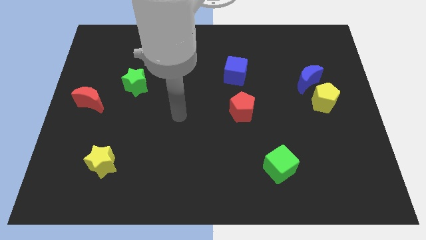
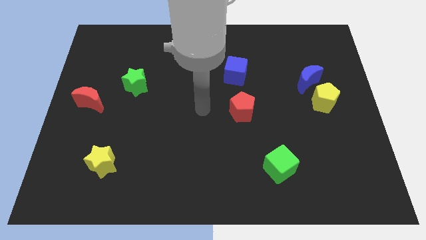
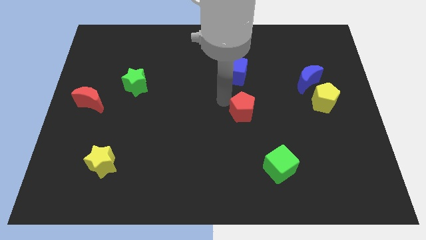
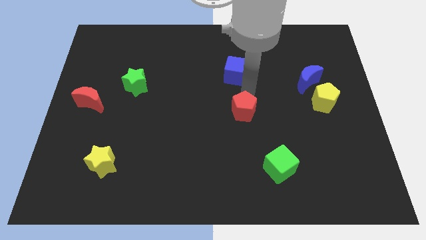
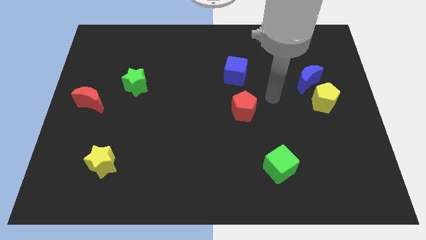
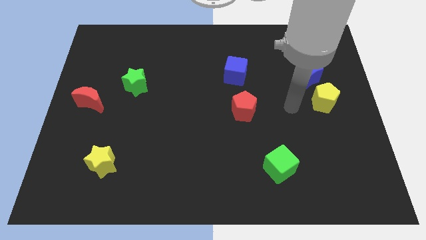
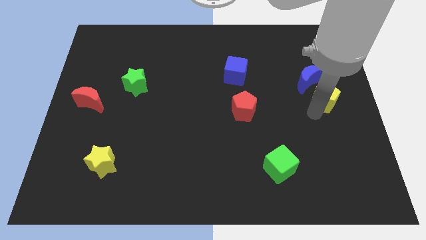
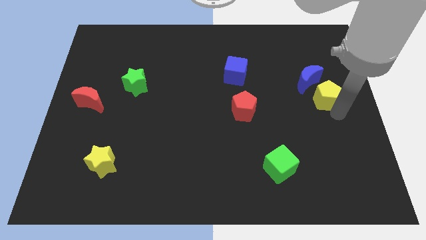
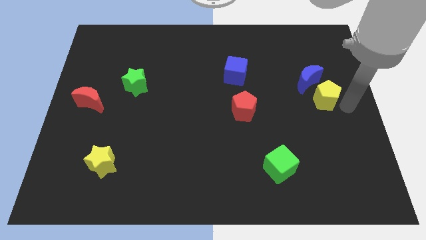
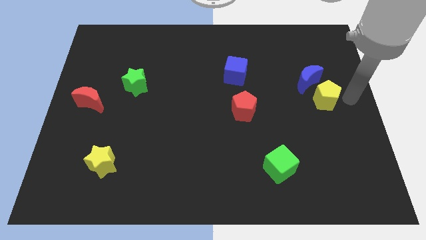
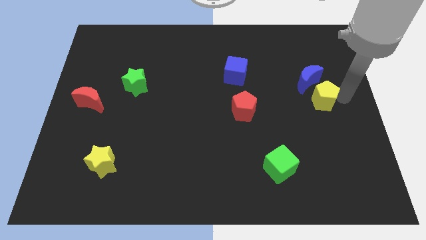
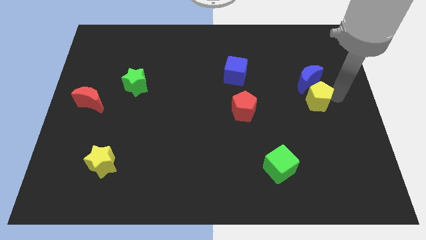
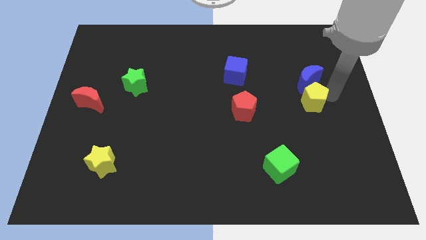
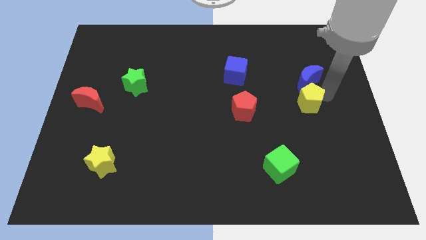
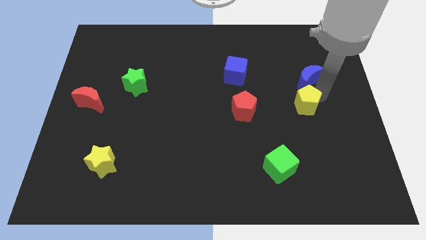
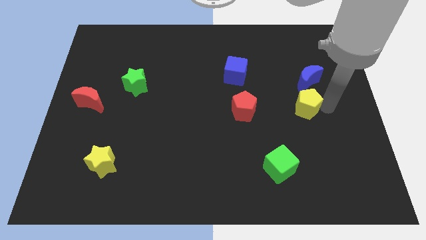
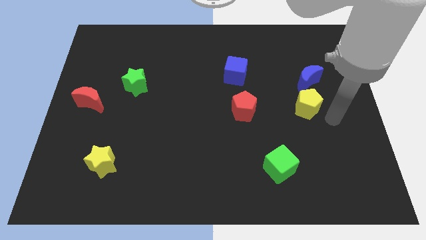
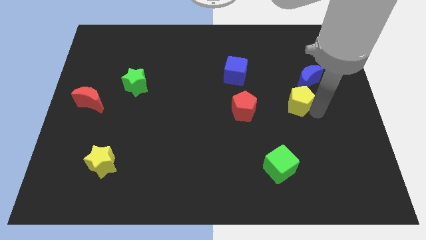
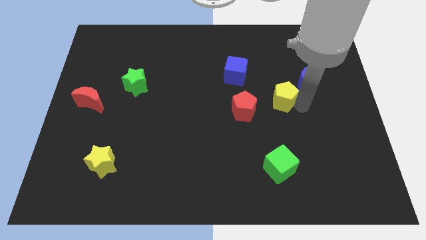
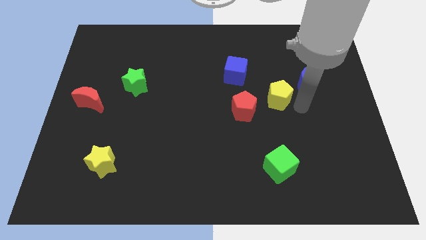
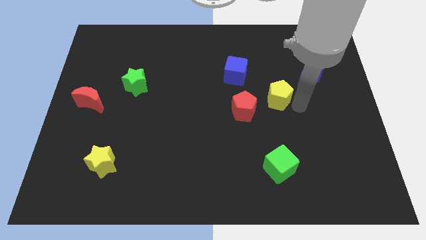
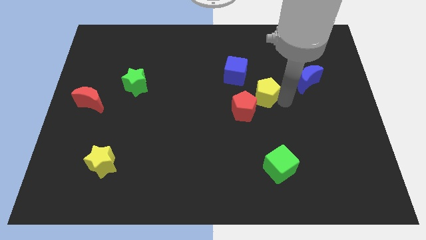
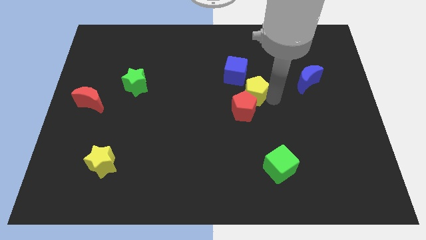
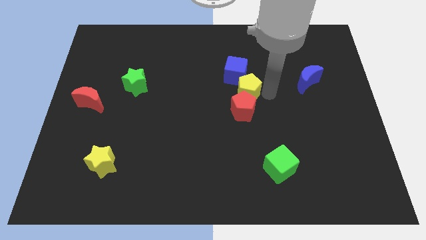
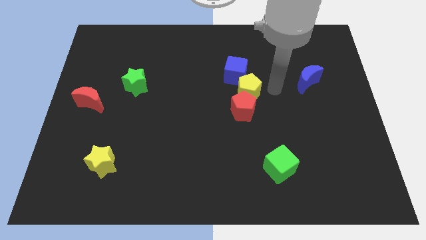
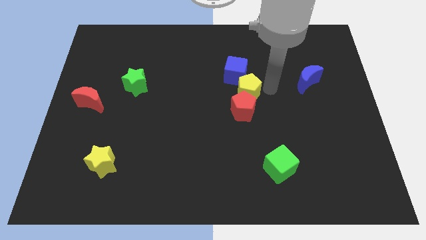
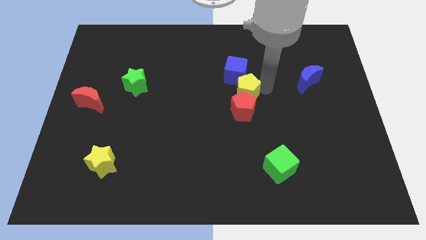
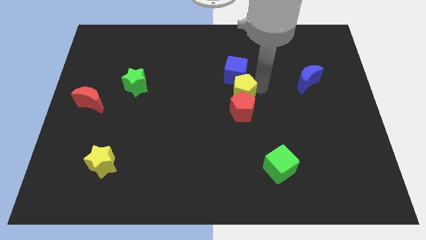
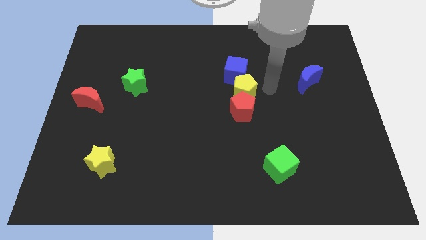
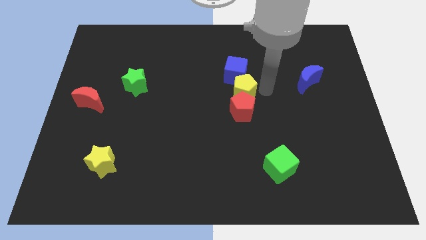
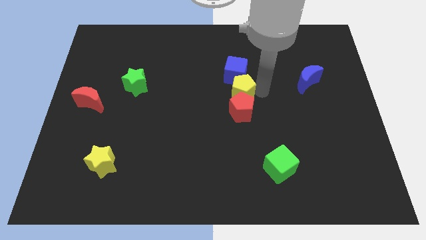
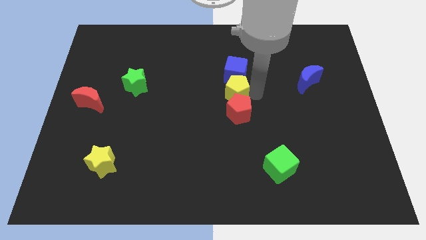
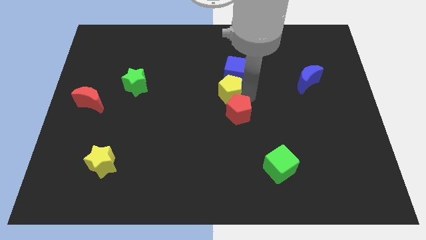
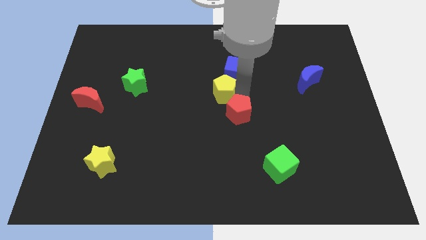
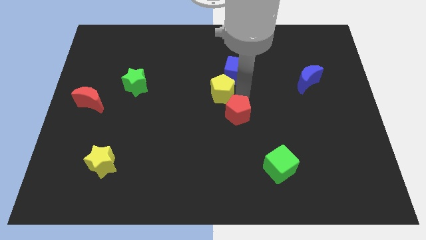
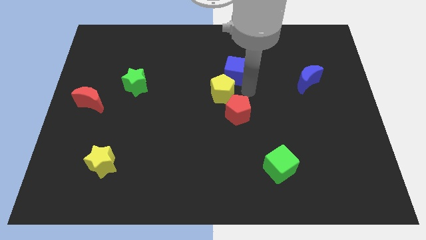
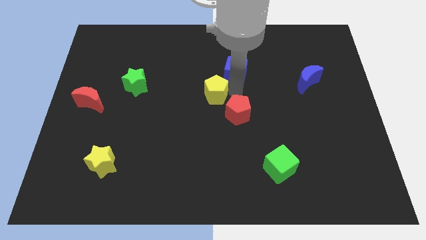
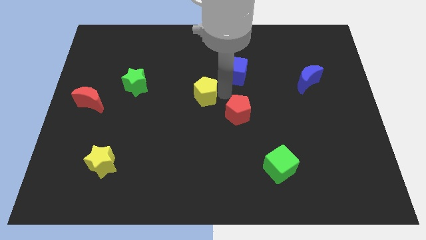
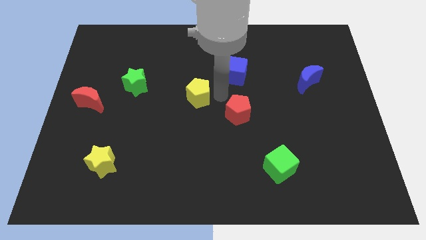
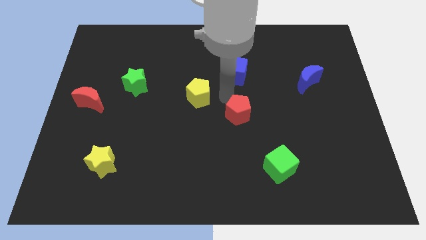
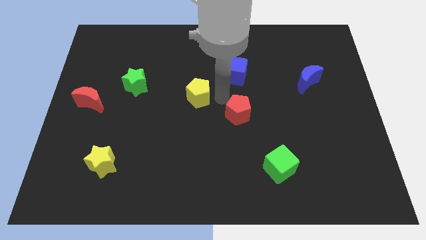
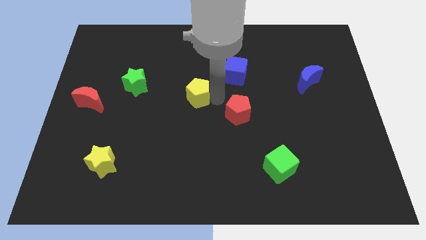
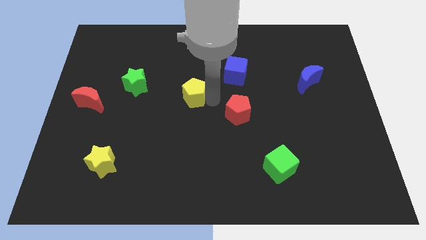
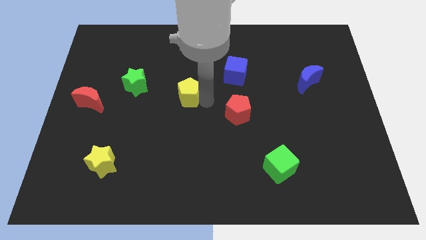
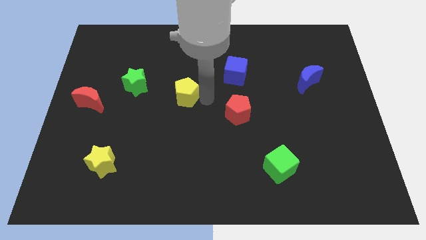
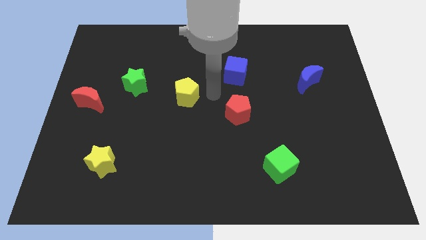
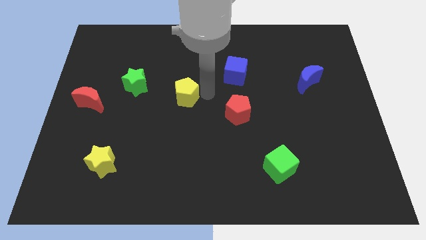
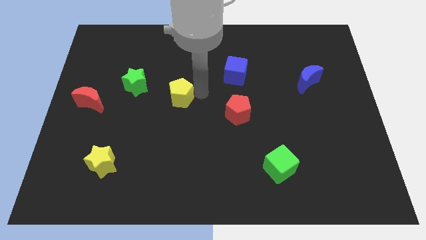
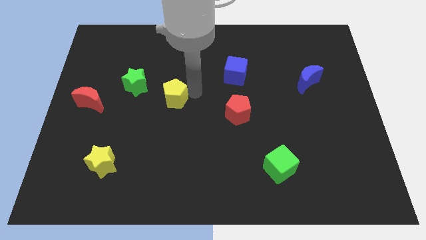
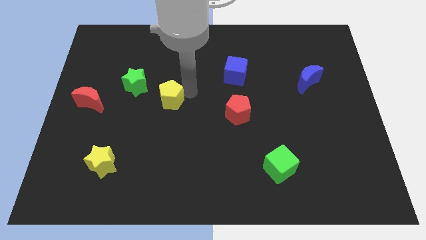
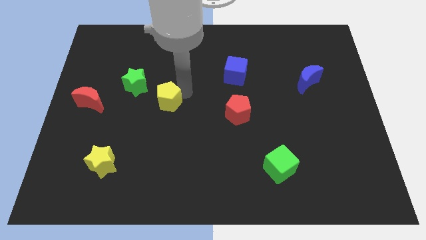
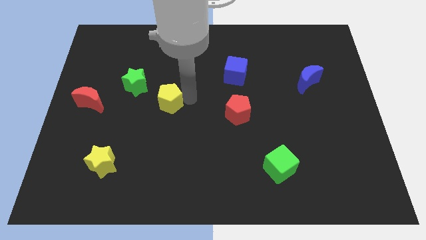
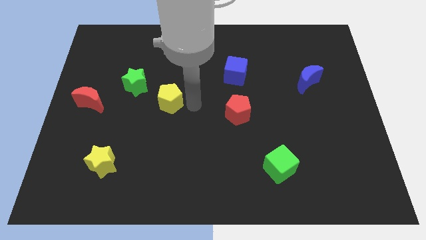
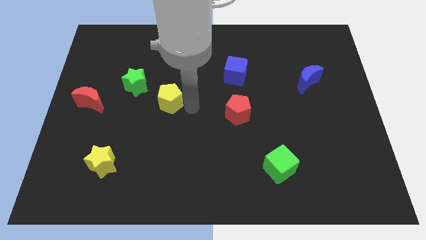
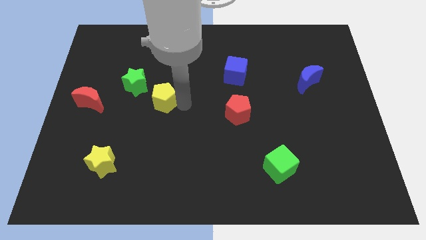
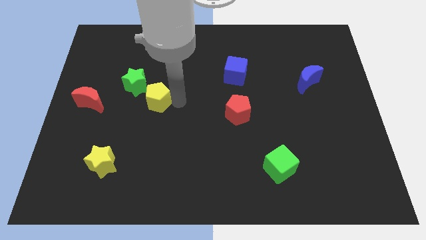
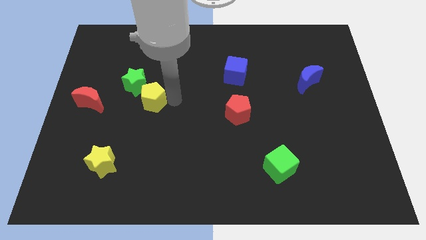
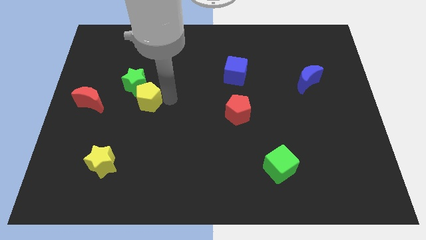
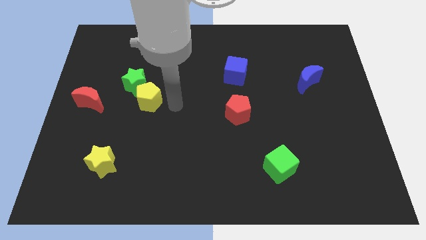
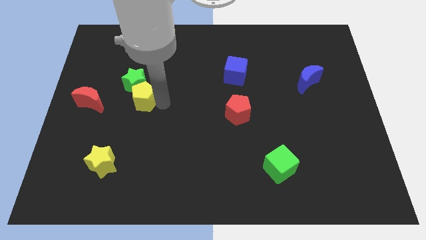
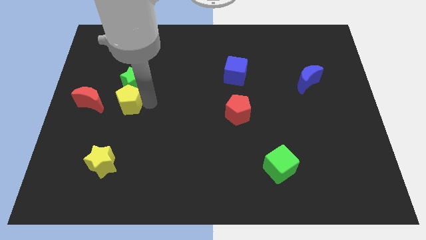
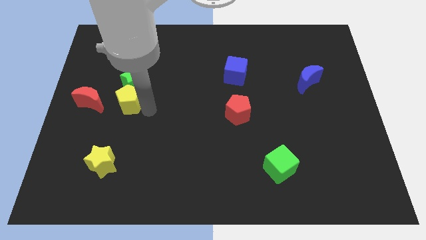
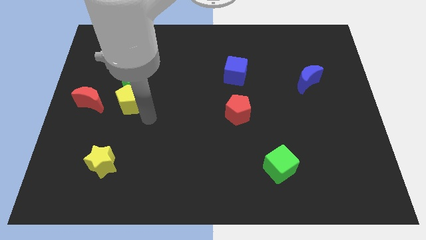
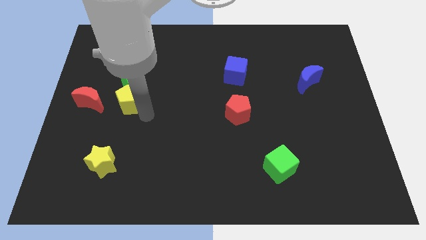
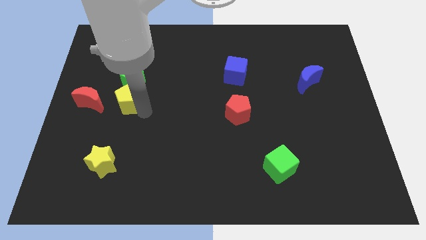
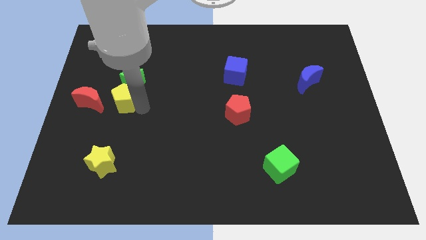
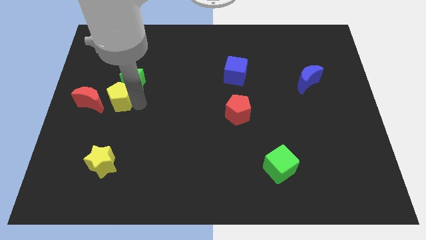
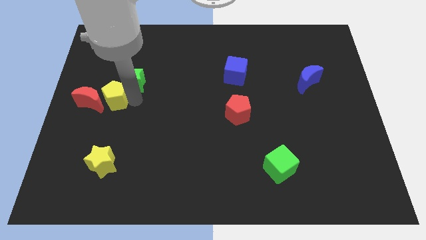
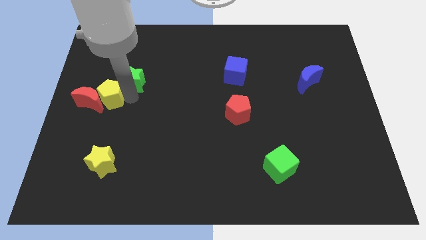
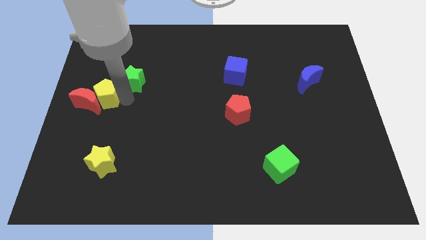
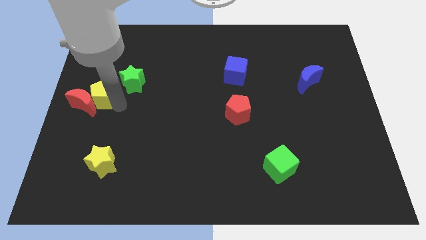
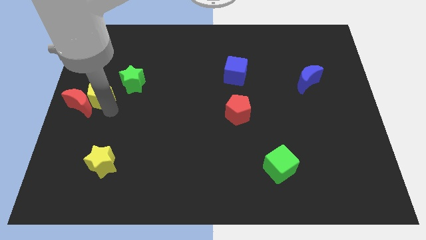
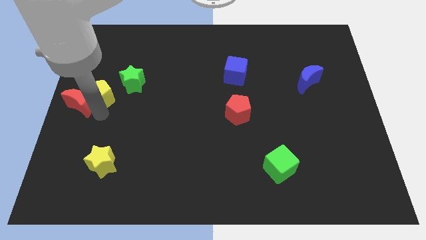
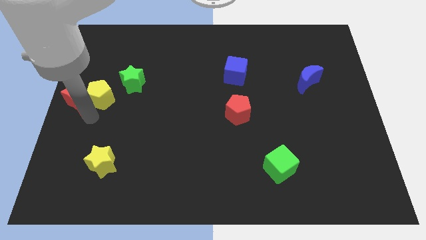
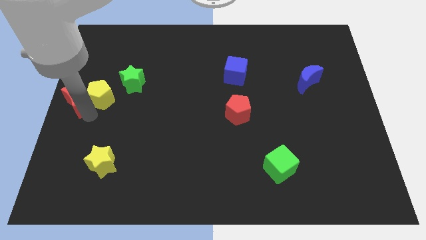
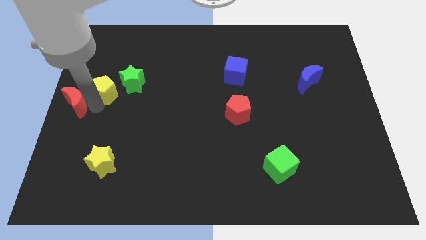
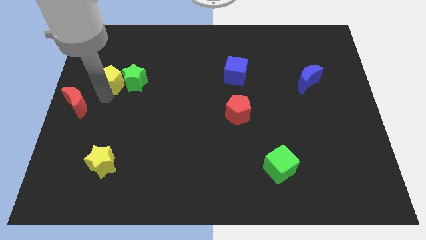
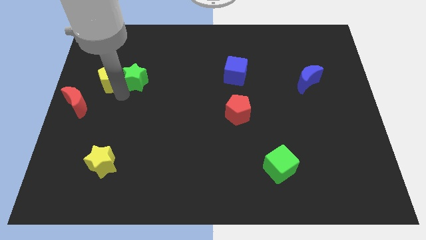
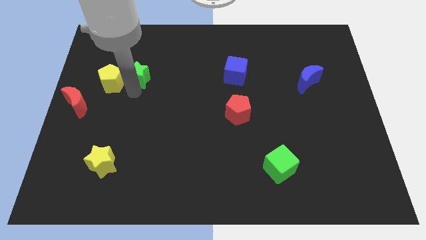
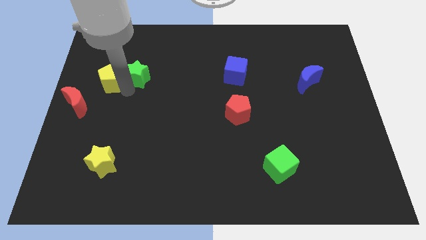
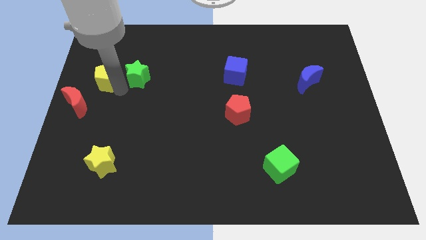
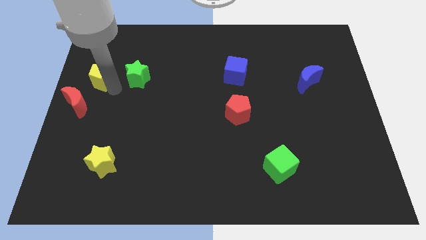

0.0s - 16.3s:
move the yellow pentagon to the top of the red moon
